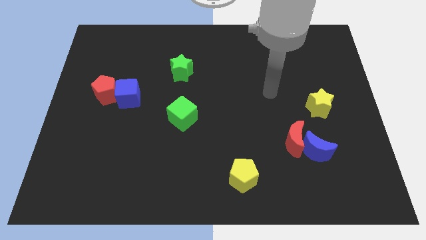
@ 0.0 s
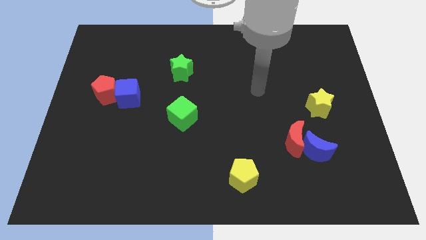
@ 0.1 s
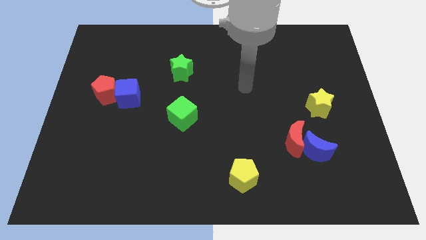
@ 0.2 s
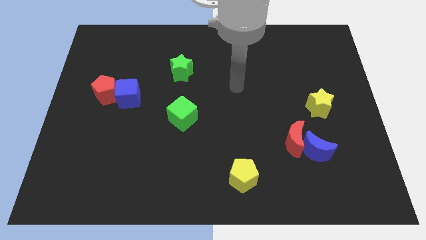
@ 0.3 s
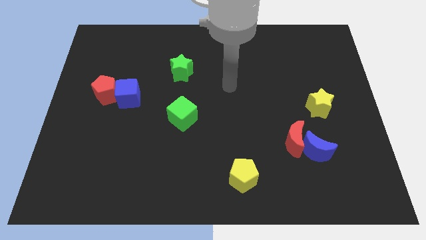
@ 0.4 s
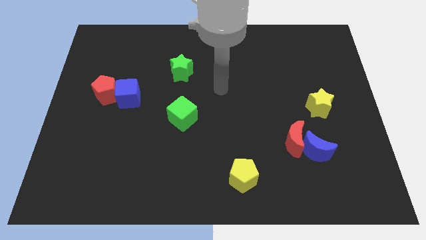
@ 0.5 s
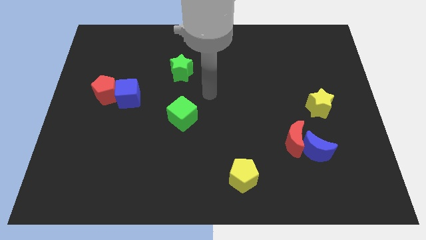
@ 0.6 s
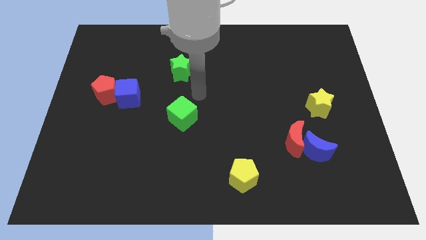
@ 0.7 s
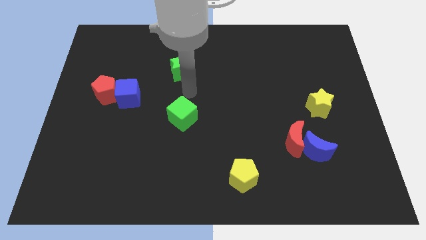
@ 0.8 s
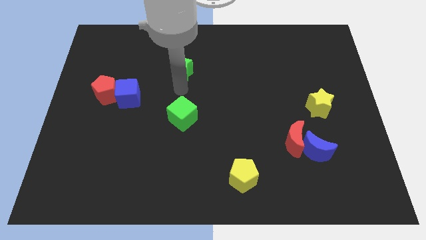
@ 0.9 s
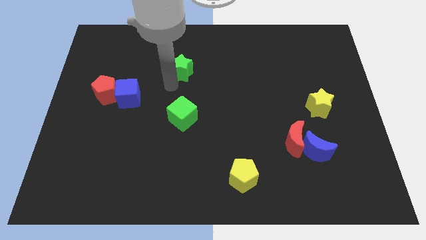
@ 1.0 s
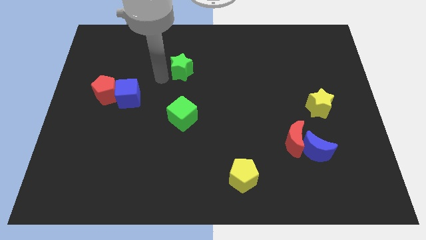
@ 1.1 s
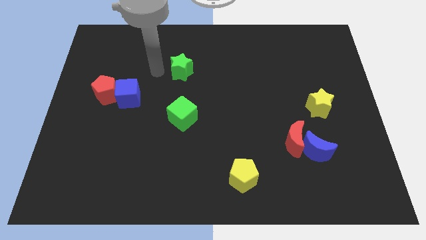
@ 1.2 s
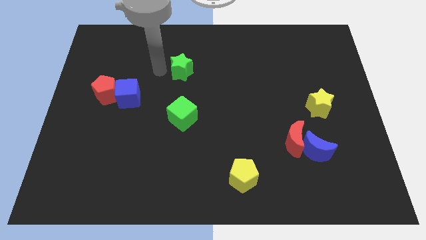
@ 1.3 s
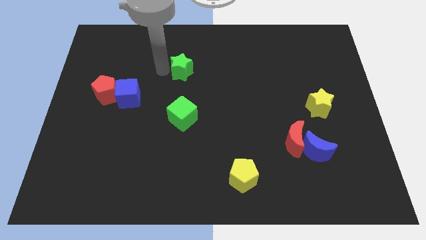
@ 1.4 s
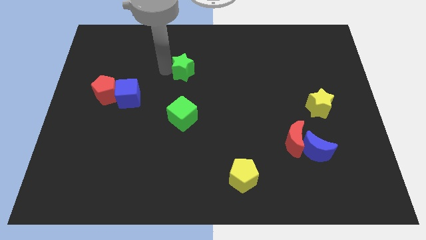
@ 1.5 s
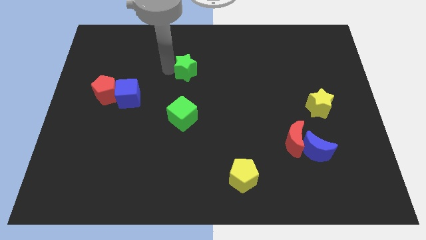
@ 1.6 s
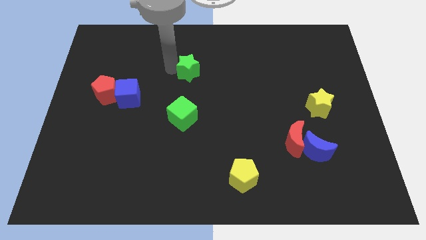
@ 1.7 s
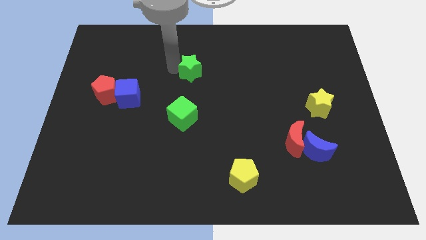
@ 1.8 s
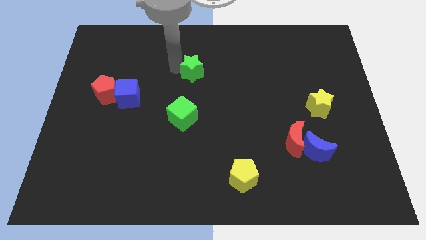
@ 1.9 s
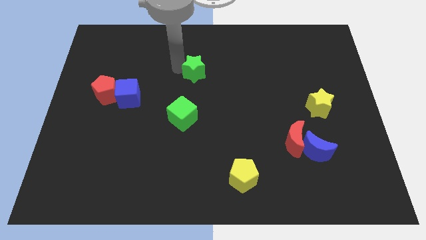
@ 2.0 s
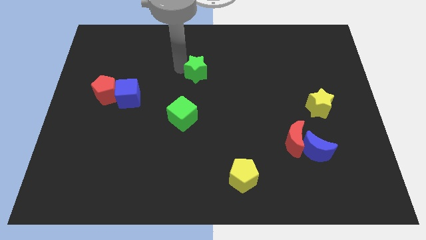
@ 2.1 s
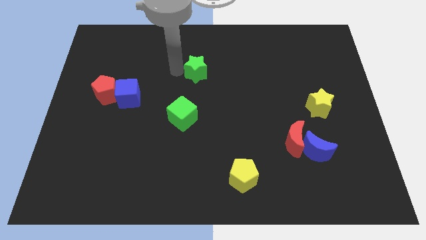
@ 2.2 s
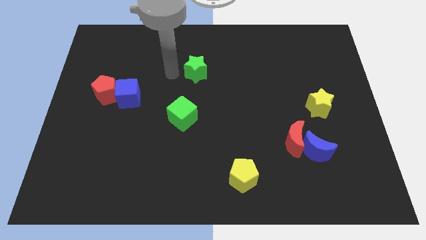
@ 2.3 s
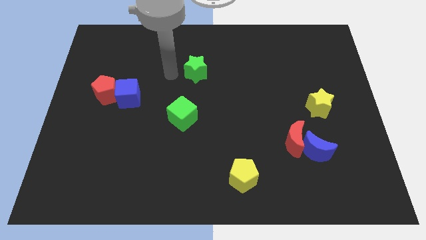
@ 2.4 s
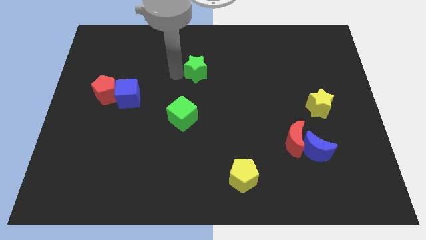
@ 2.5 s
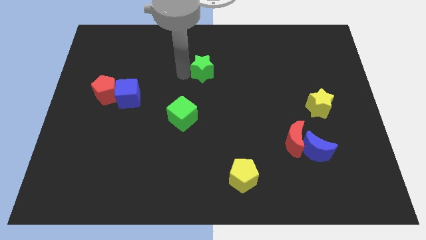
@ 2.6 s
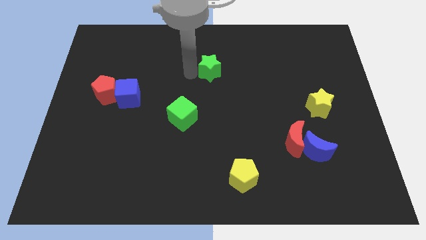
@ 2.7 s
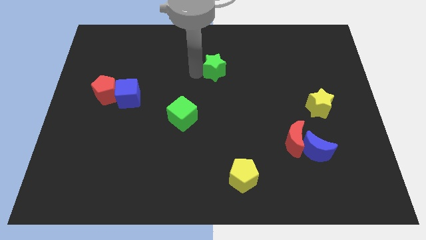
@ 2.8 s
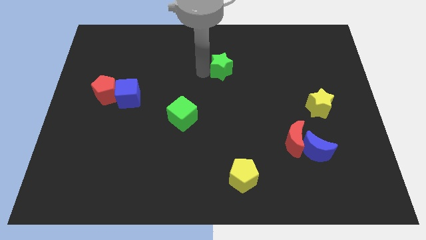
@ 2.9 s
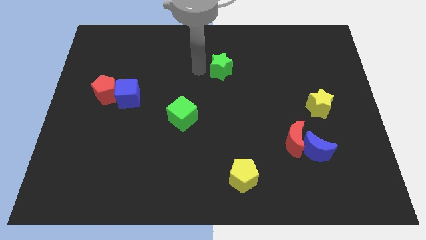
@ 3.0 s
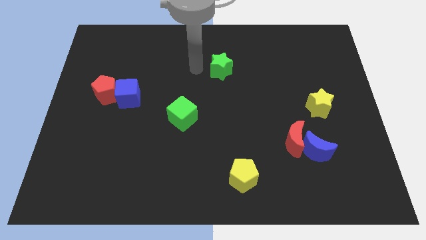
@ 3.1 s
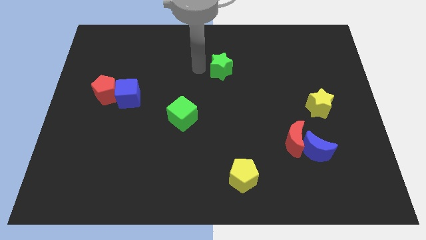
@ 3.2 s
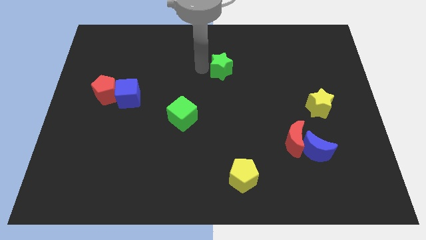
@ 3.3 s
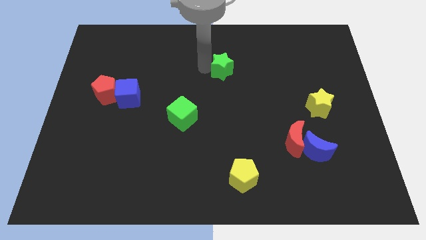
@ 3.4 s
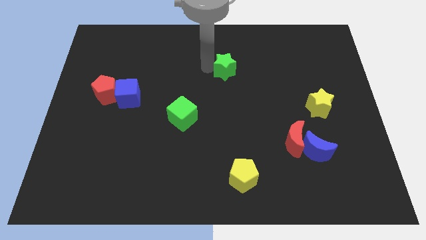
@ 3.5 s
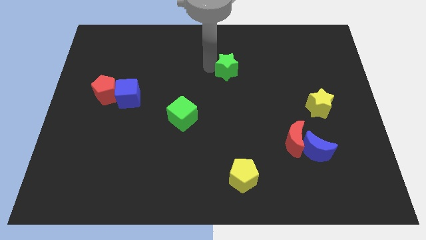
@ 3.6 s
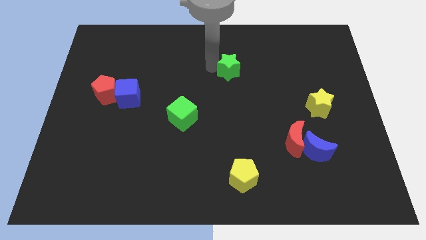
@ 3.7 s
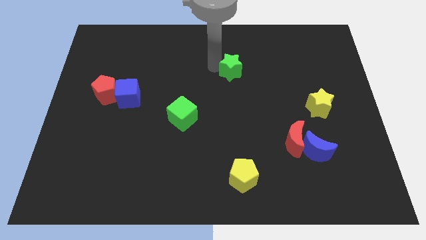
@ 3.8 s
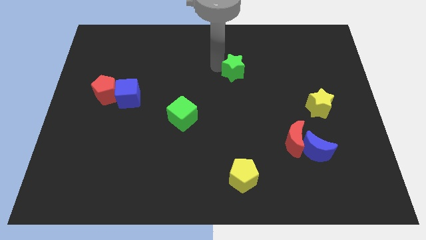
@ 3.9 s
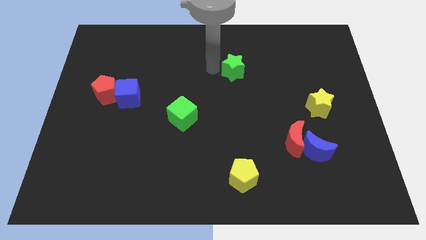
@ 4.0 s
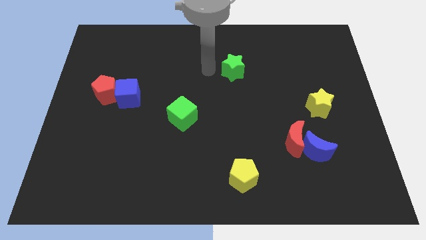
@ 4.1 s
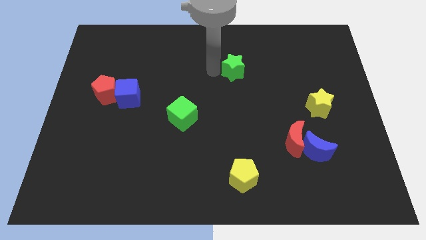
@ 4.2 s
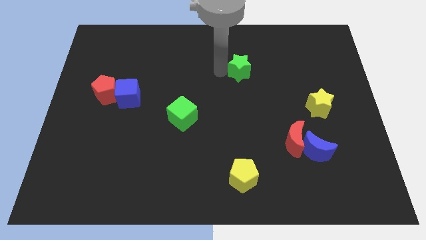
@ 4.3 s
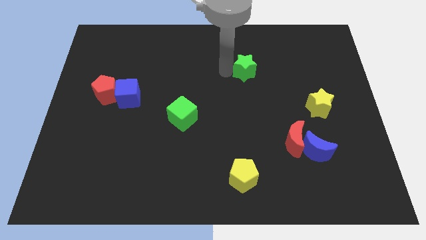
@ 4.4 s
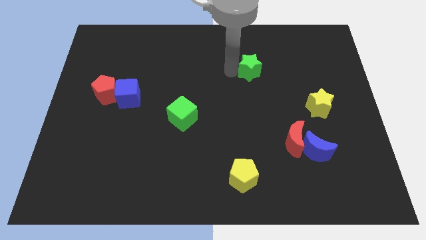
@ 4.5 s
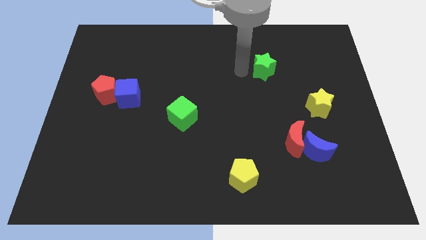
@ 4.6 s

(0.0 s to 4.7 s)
push the green star right

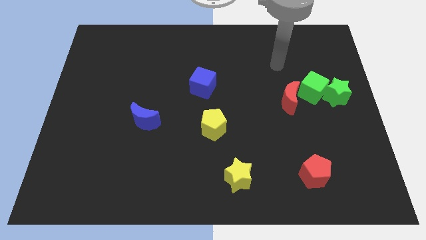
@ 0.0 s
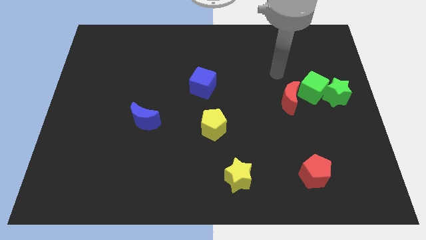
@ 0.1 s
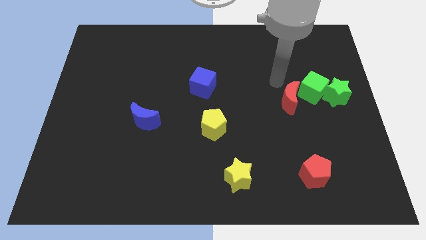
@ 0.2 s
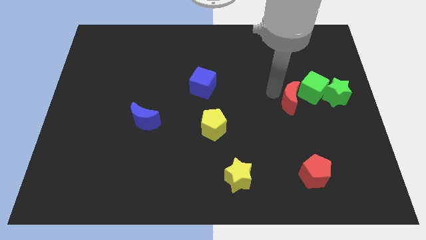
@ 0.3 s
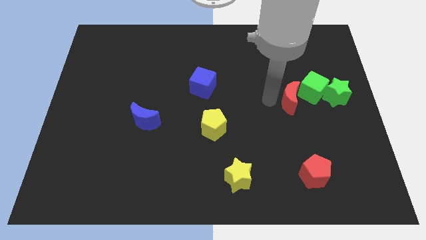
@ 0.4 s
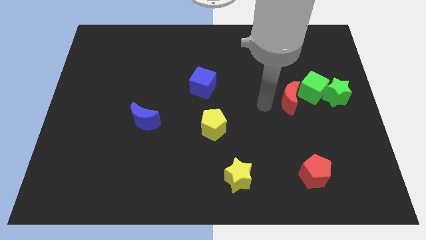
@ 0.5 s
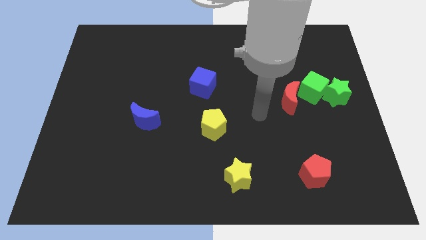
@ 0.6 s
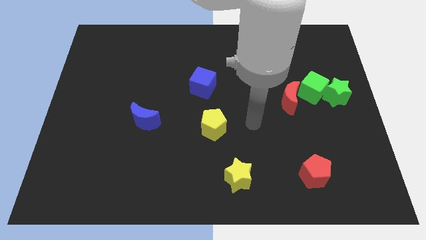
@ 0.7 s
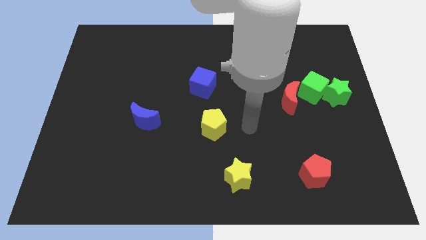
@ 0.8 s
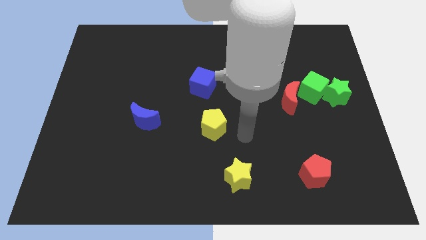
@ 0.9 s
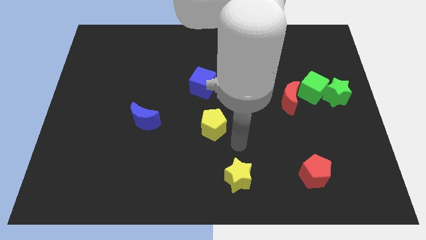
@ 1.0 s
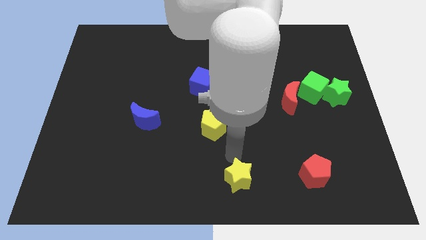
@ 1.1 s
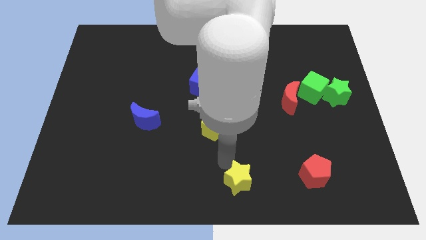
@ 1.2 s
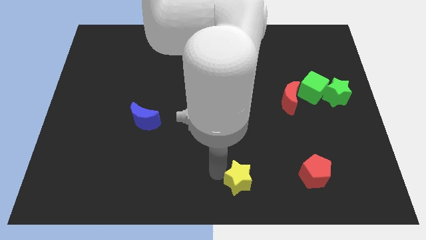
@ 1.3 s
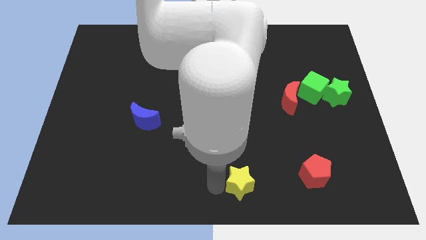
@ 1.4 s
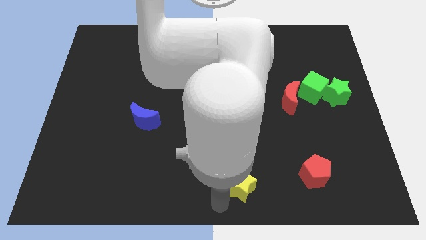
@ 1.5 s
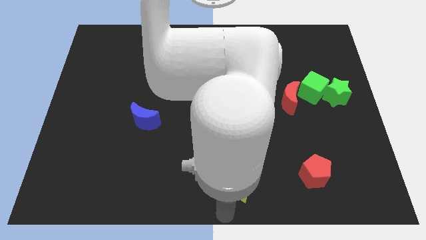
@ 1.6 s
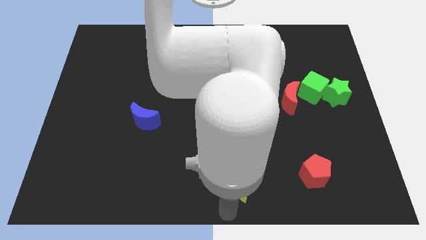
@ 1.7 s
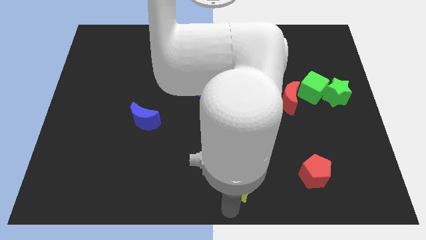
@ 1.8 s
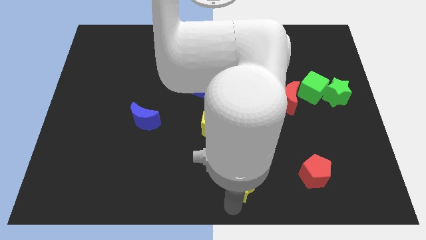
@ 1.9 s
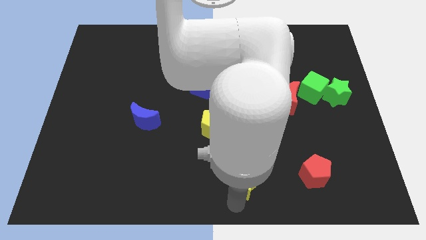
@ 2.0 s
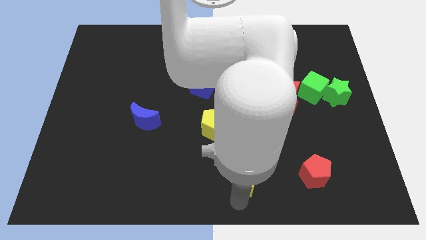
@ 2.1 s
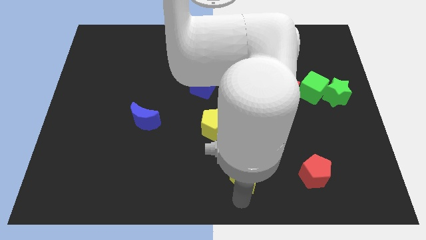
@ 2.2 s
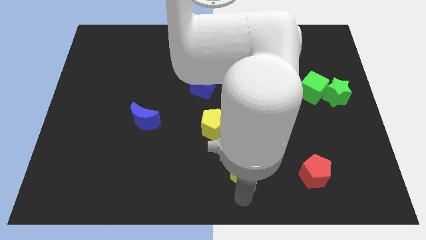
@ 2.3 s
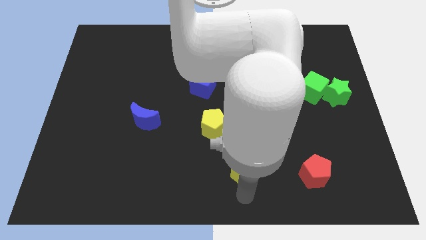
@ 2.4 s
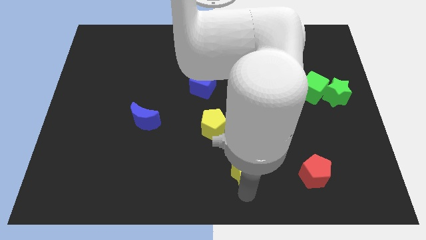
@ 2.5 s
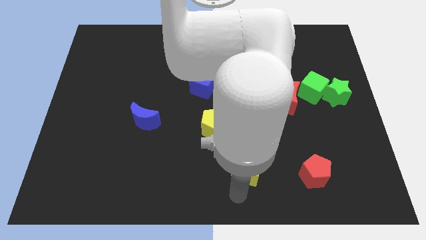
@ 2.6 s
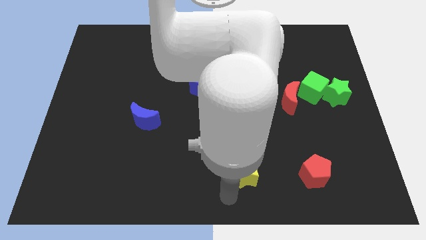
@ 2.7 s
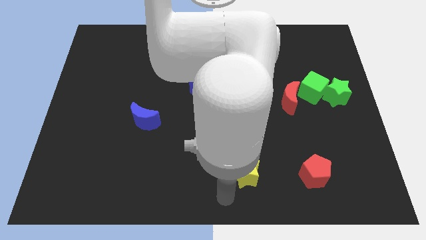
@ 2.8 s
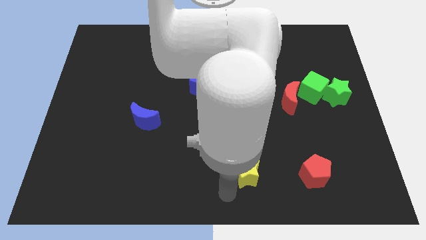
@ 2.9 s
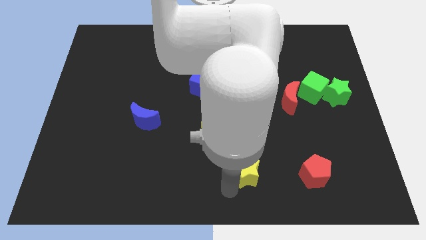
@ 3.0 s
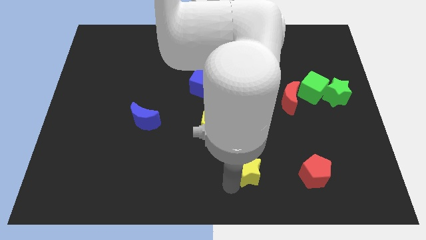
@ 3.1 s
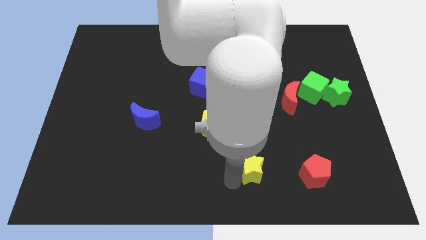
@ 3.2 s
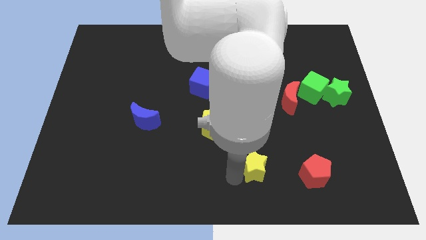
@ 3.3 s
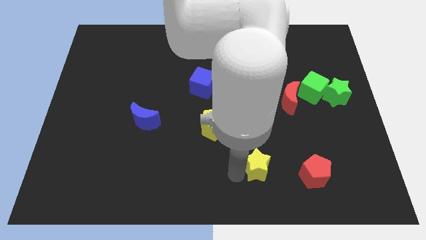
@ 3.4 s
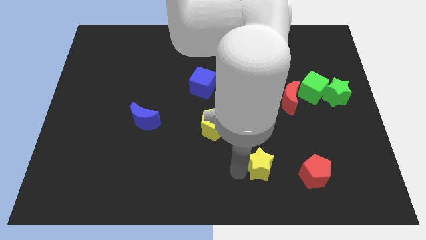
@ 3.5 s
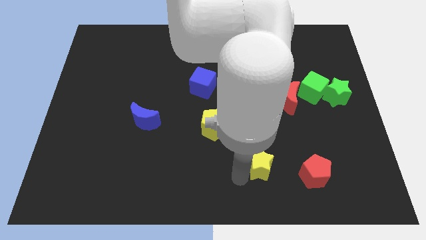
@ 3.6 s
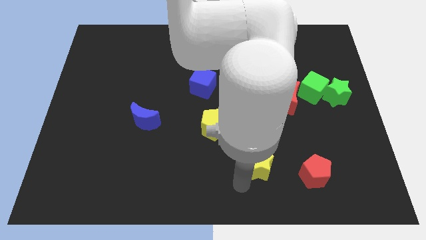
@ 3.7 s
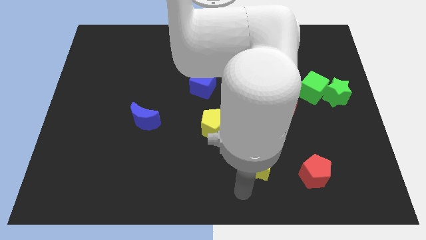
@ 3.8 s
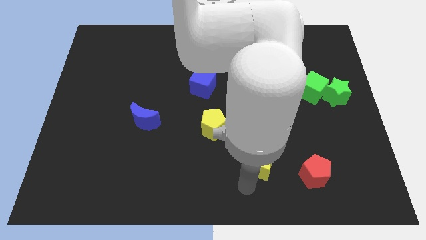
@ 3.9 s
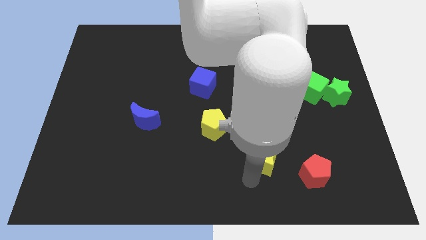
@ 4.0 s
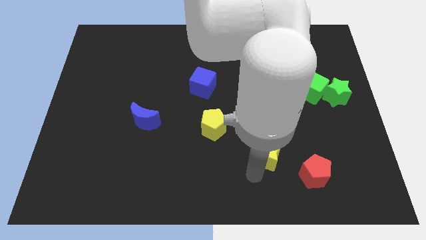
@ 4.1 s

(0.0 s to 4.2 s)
move the yellow star somewhat upwards and to the right diagonally
